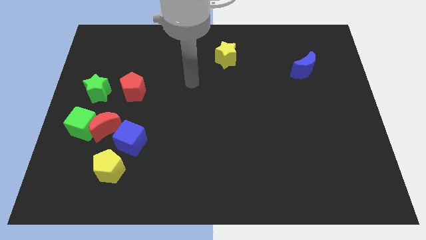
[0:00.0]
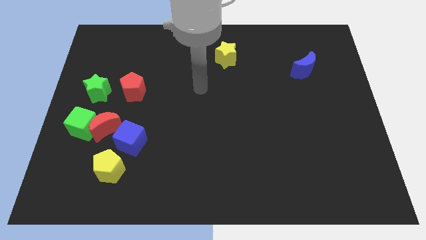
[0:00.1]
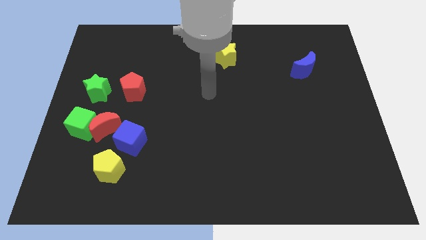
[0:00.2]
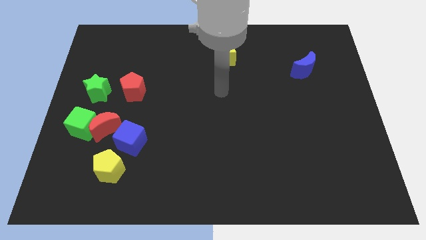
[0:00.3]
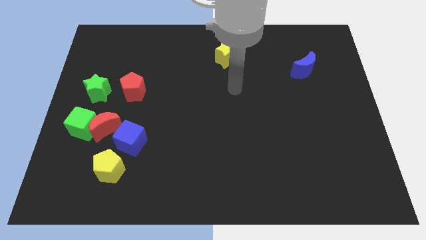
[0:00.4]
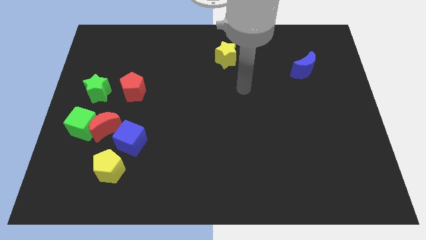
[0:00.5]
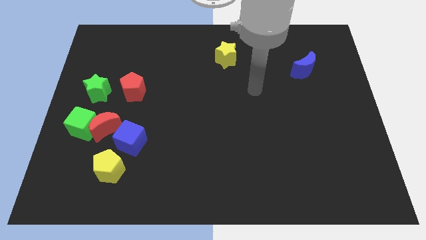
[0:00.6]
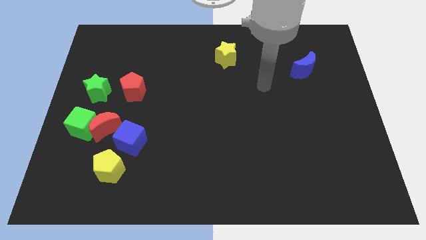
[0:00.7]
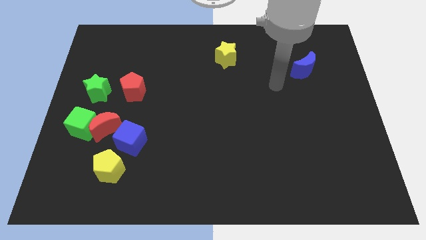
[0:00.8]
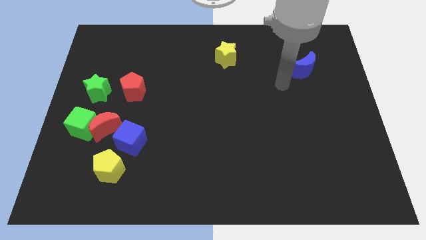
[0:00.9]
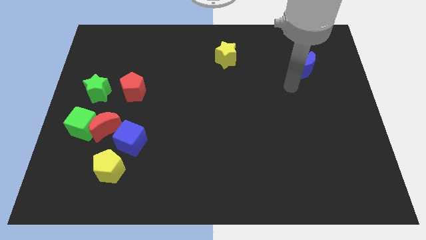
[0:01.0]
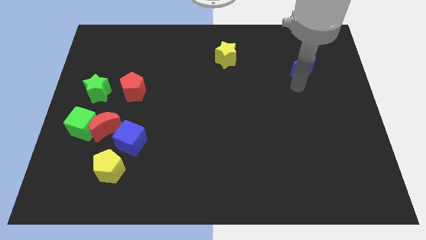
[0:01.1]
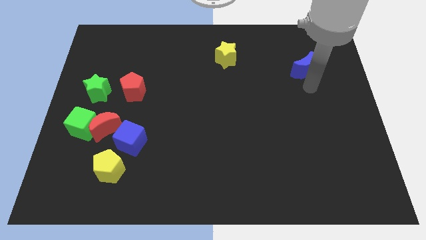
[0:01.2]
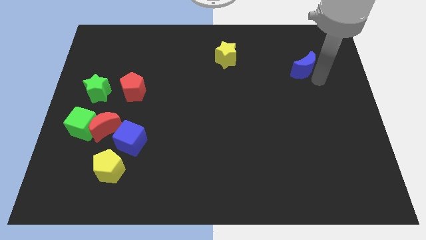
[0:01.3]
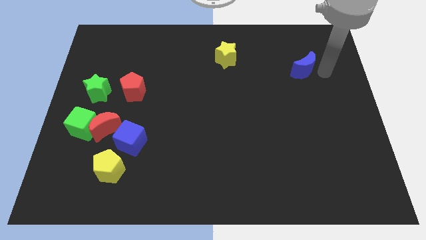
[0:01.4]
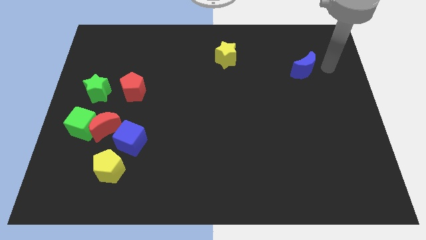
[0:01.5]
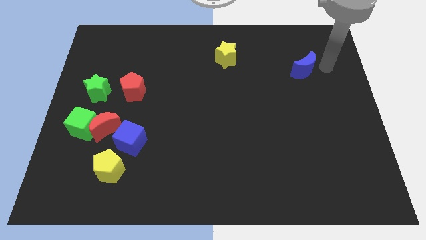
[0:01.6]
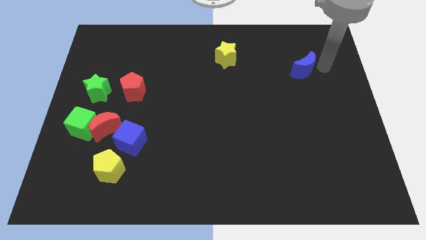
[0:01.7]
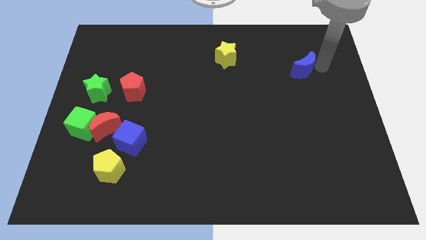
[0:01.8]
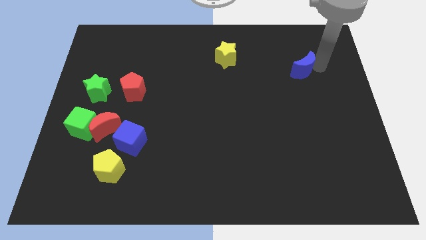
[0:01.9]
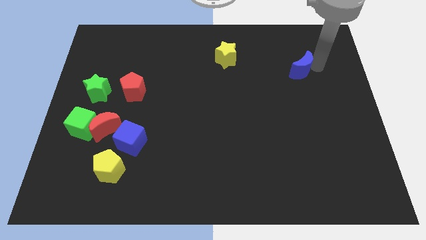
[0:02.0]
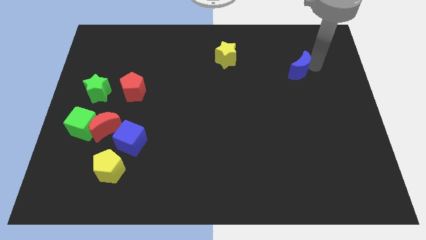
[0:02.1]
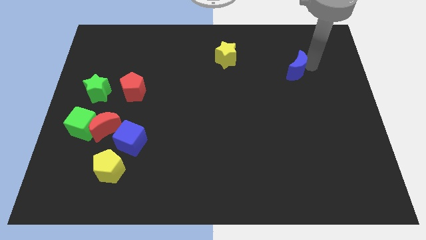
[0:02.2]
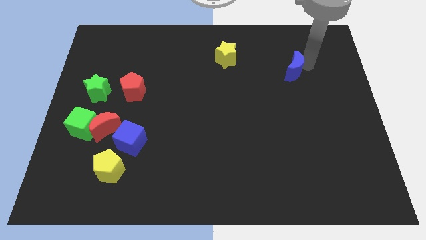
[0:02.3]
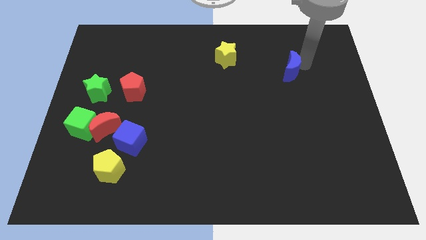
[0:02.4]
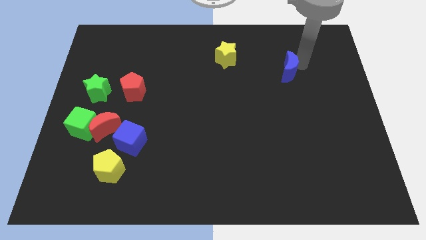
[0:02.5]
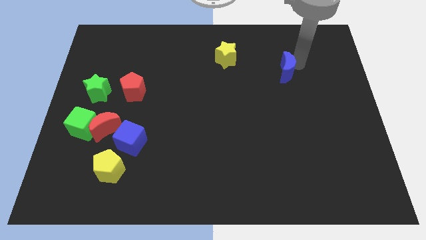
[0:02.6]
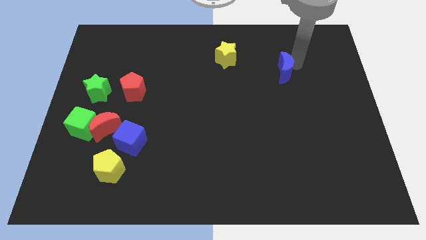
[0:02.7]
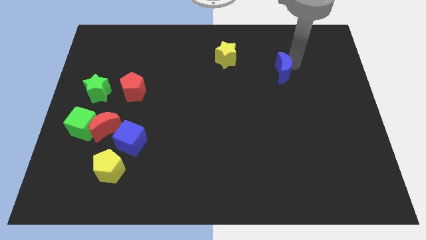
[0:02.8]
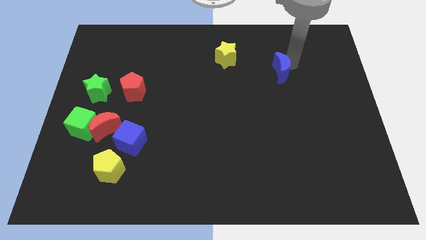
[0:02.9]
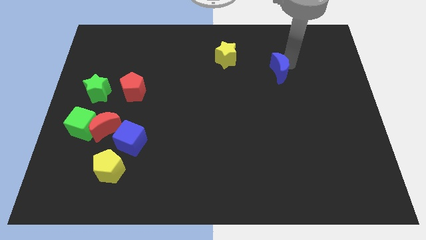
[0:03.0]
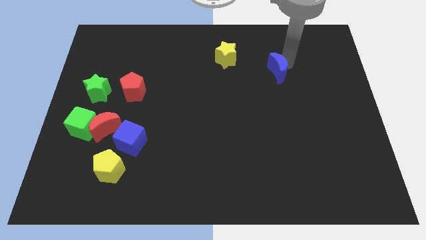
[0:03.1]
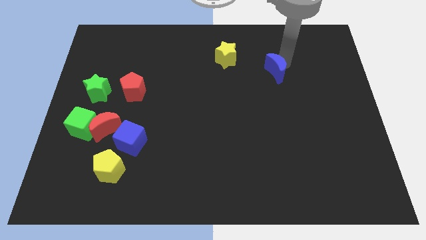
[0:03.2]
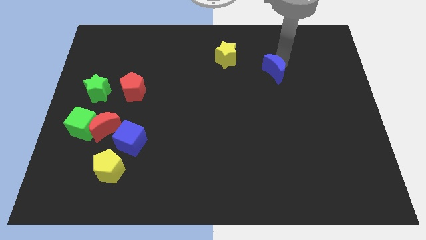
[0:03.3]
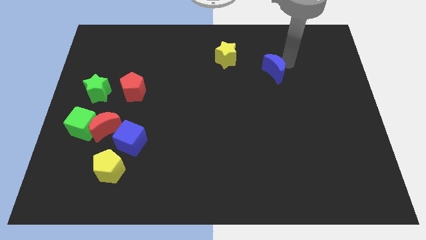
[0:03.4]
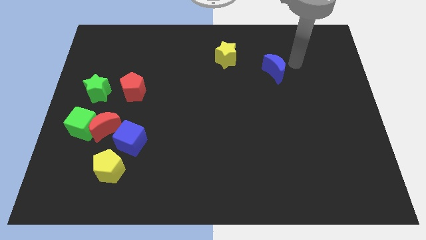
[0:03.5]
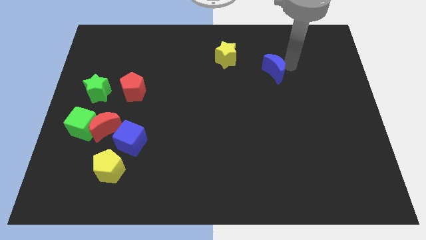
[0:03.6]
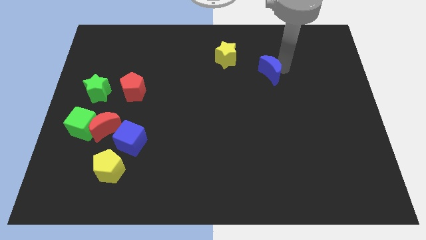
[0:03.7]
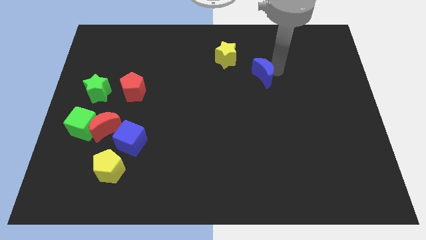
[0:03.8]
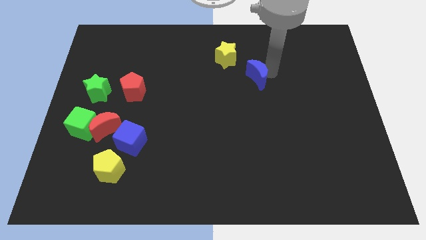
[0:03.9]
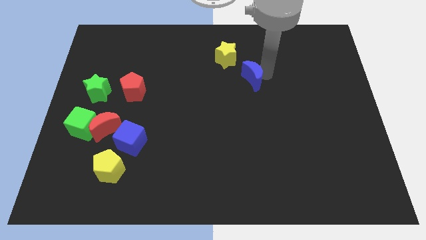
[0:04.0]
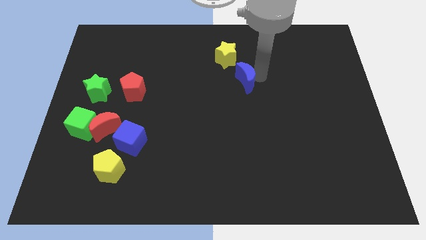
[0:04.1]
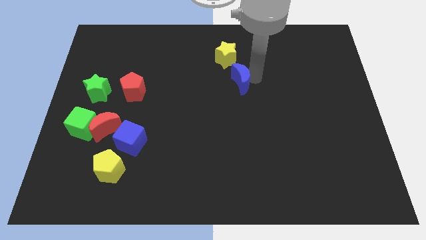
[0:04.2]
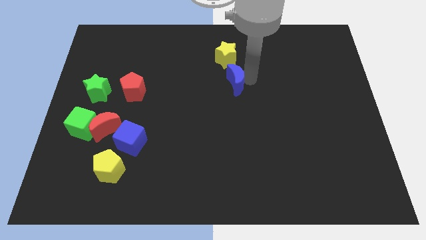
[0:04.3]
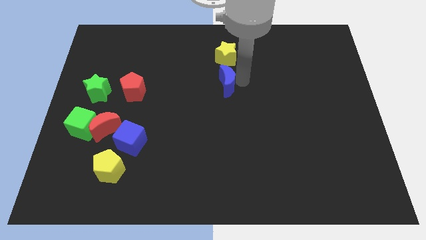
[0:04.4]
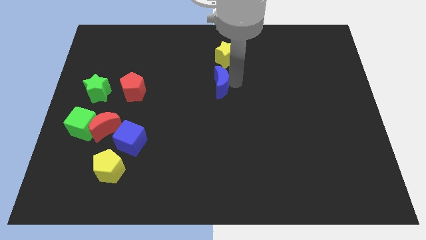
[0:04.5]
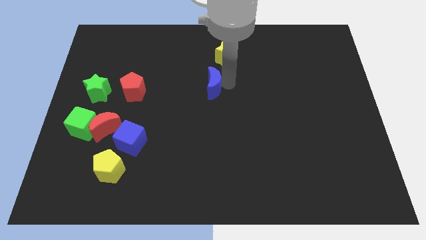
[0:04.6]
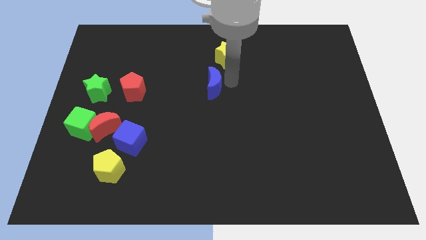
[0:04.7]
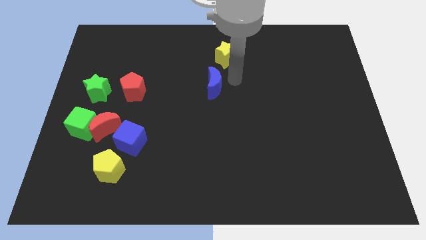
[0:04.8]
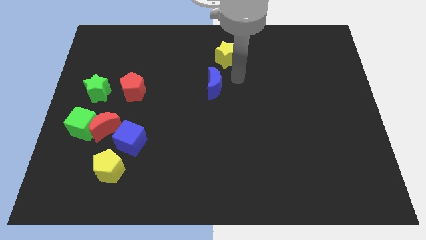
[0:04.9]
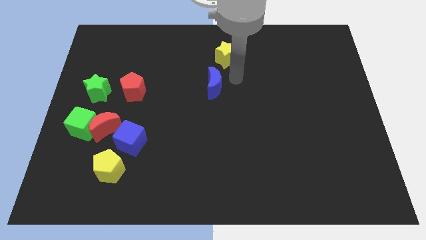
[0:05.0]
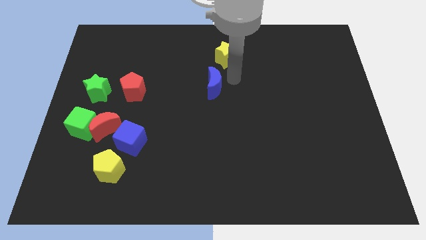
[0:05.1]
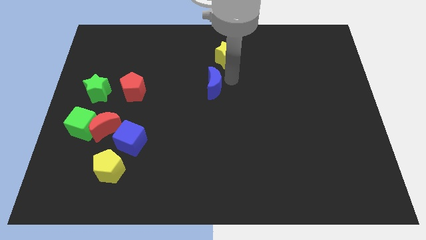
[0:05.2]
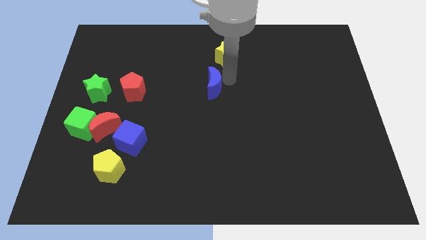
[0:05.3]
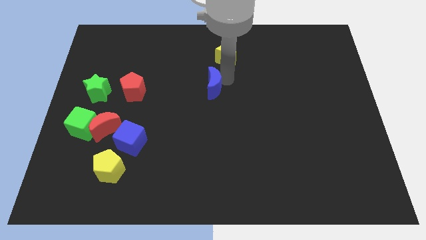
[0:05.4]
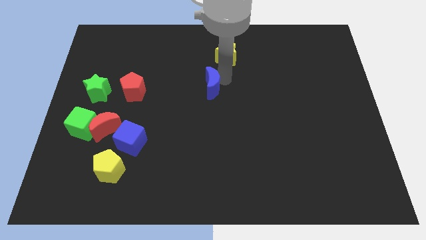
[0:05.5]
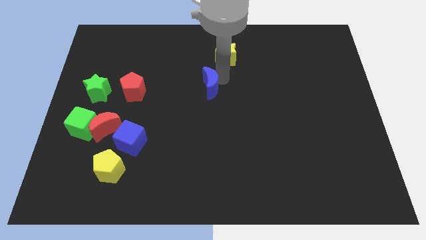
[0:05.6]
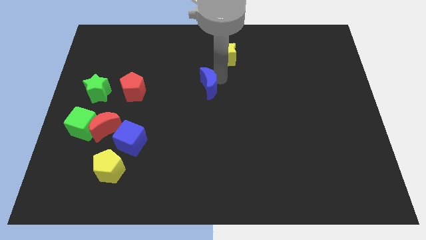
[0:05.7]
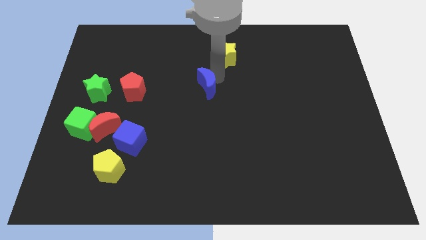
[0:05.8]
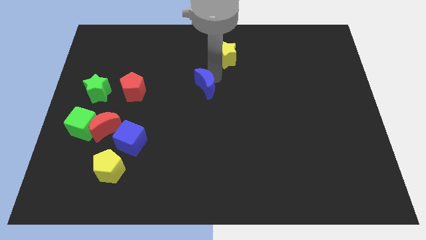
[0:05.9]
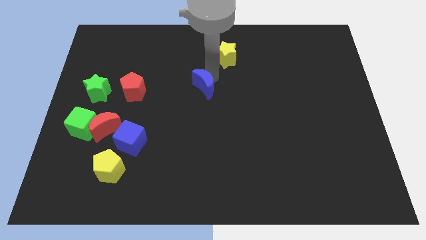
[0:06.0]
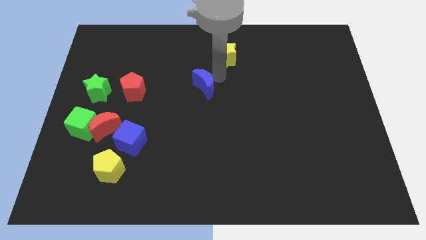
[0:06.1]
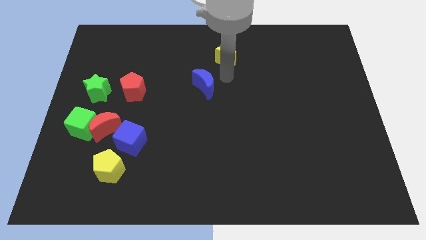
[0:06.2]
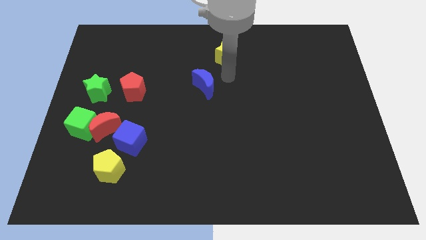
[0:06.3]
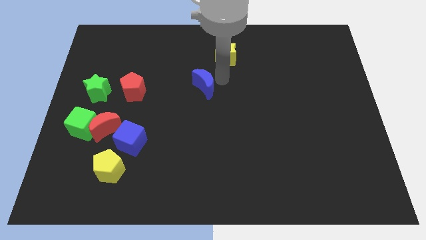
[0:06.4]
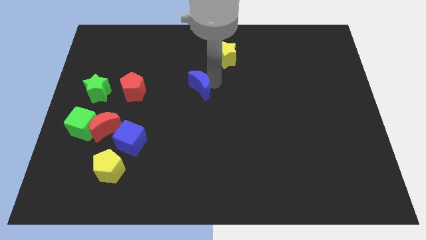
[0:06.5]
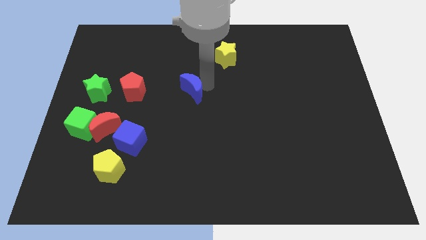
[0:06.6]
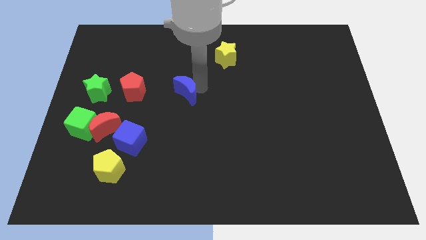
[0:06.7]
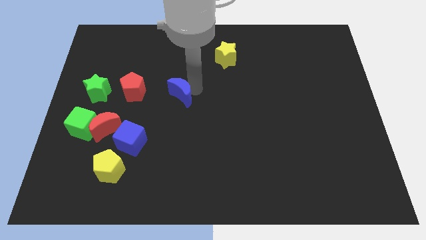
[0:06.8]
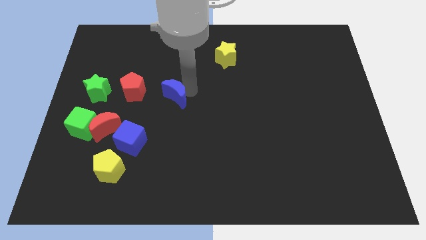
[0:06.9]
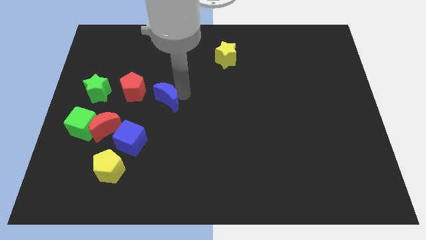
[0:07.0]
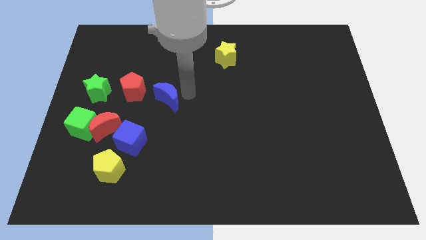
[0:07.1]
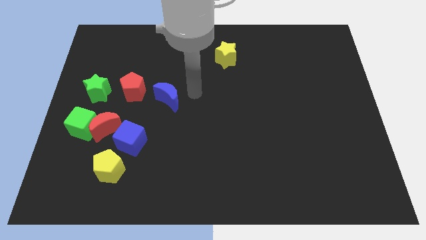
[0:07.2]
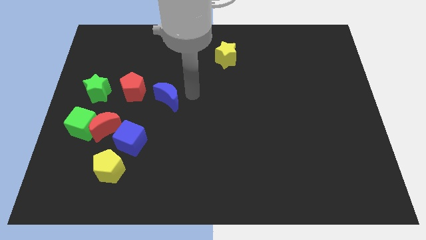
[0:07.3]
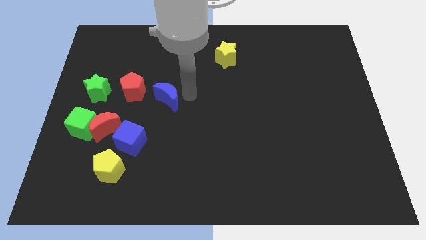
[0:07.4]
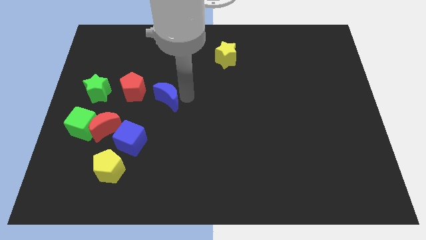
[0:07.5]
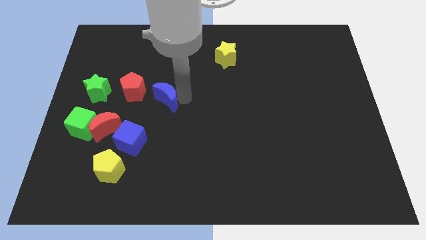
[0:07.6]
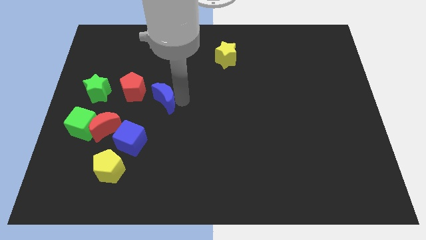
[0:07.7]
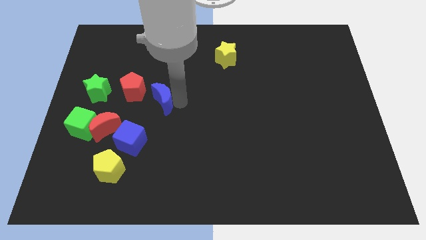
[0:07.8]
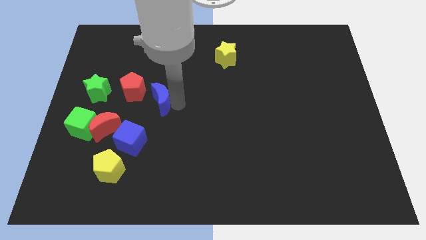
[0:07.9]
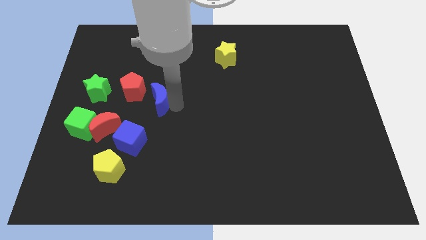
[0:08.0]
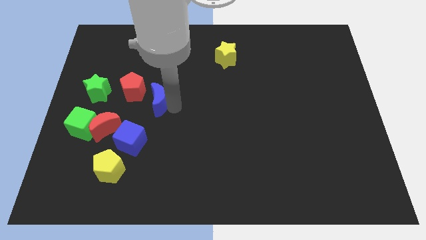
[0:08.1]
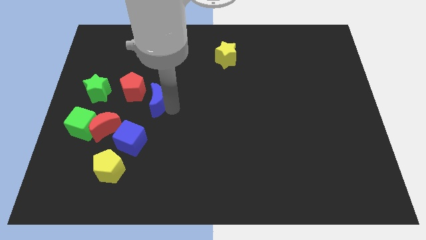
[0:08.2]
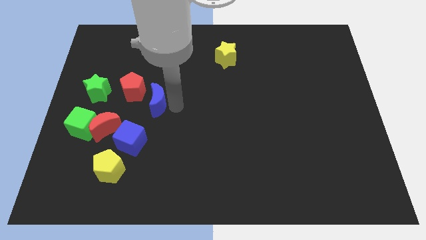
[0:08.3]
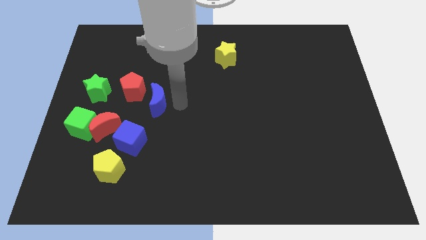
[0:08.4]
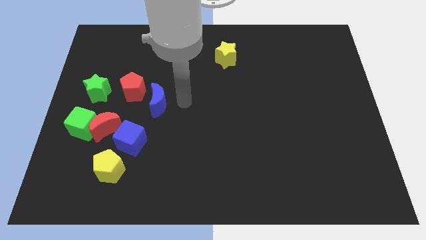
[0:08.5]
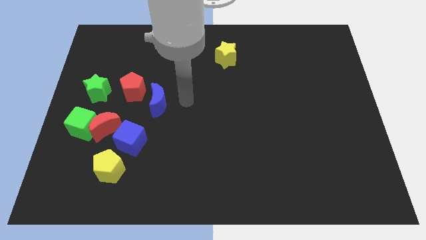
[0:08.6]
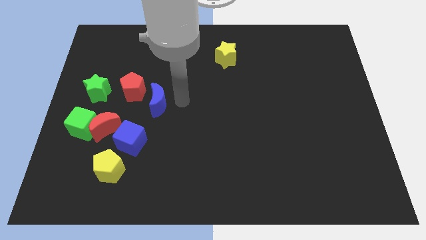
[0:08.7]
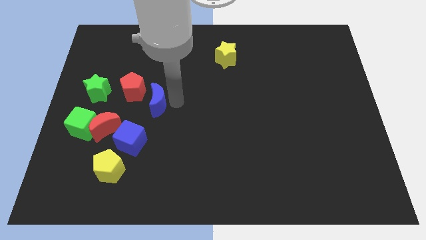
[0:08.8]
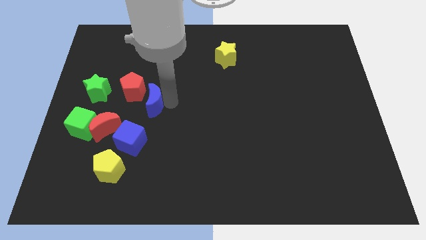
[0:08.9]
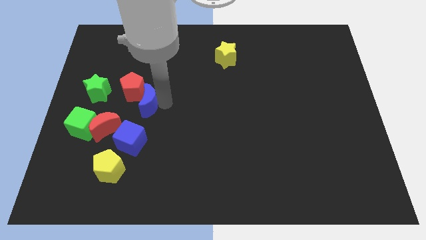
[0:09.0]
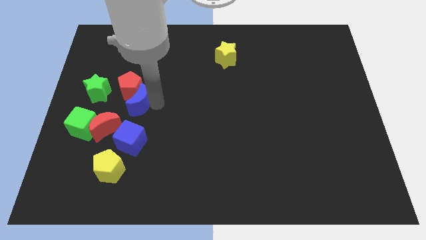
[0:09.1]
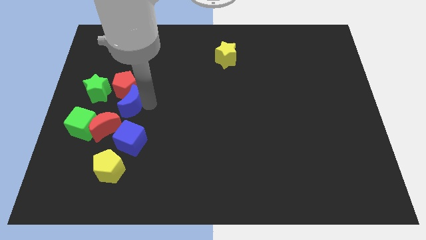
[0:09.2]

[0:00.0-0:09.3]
put the blue moon diagonally down and to the right of the green star
